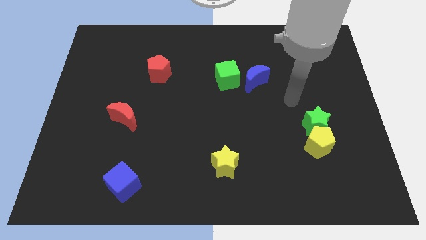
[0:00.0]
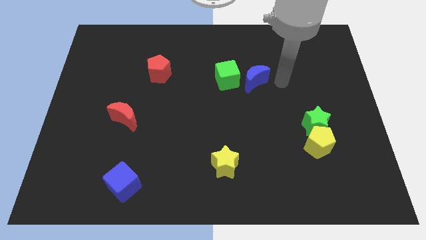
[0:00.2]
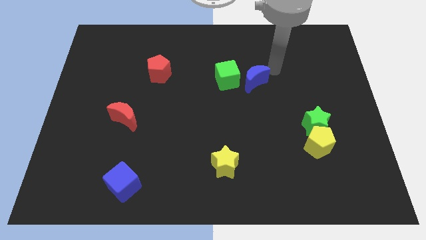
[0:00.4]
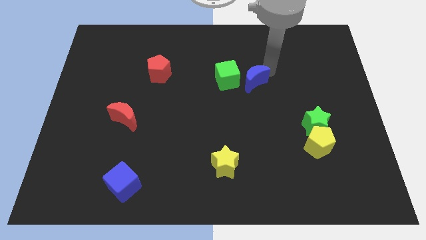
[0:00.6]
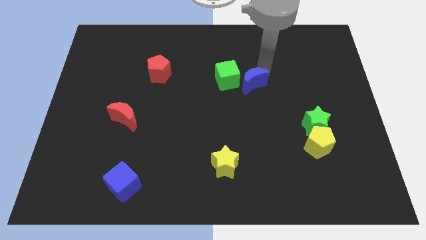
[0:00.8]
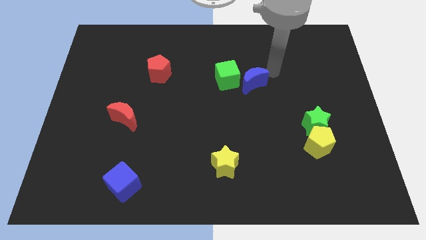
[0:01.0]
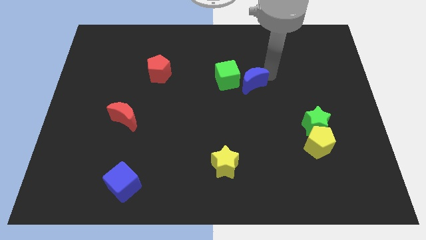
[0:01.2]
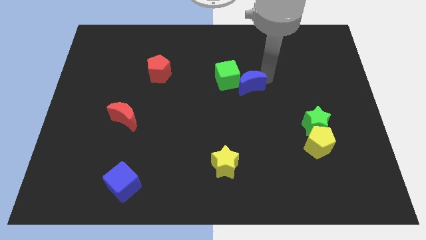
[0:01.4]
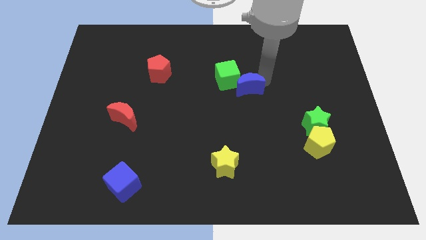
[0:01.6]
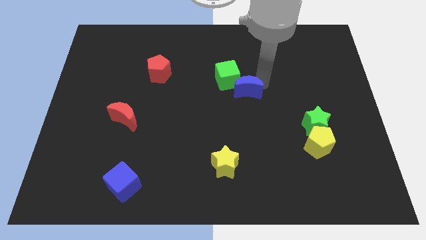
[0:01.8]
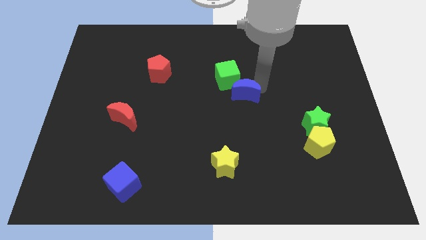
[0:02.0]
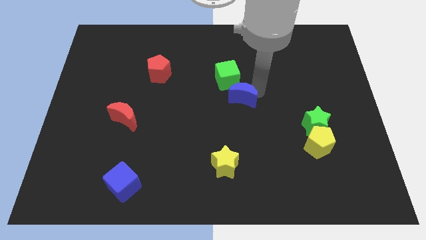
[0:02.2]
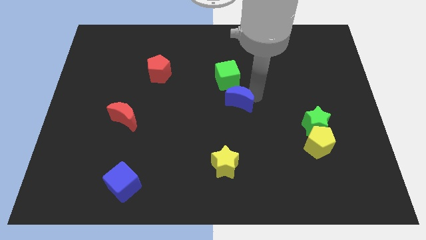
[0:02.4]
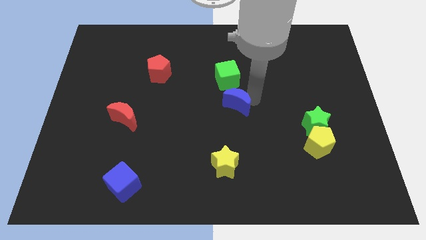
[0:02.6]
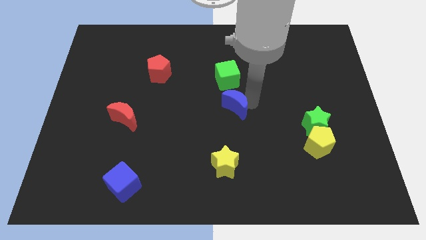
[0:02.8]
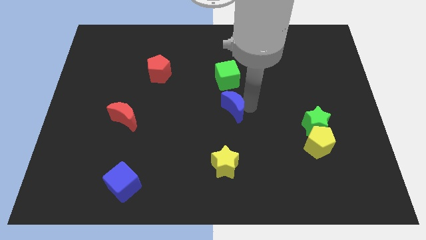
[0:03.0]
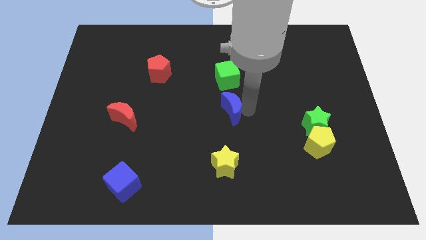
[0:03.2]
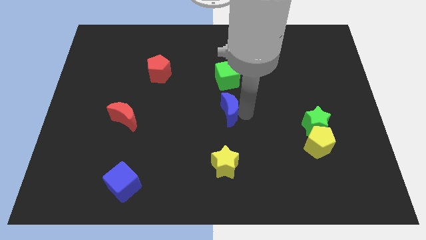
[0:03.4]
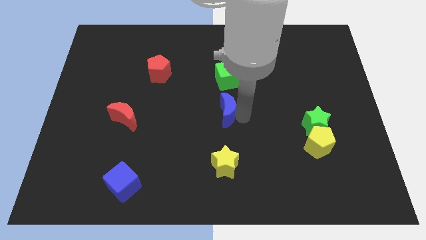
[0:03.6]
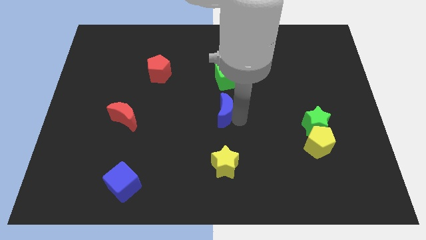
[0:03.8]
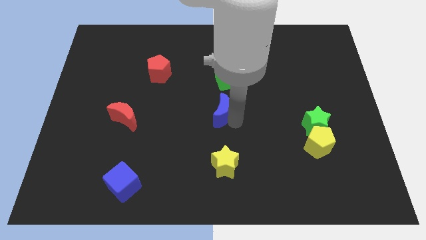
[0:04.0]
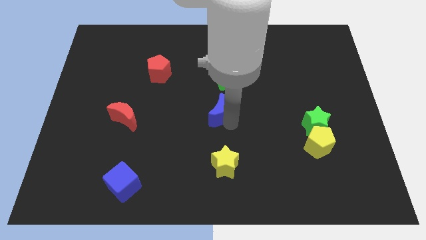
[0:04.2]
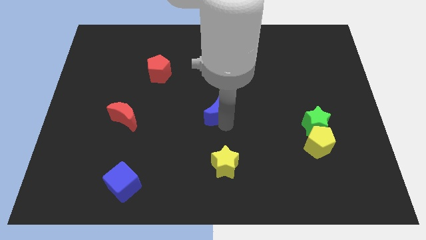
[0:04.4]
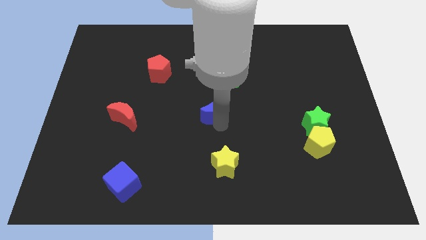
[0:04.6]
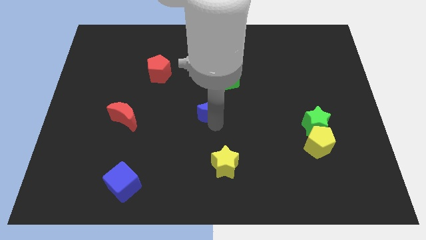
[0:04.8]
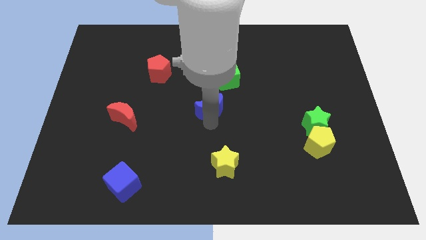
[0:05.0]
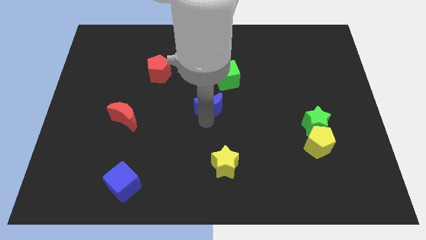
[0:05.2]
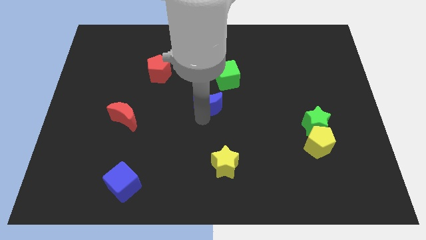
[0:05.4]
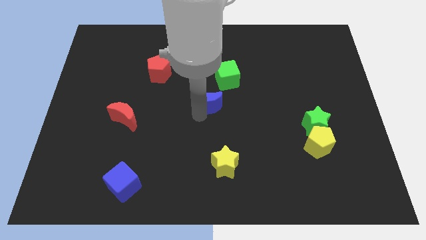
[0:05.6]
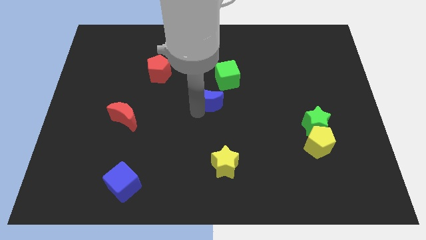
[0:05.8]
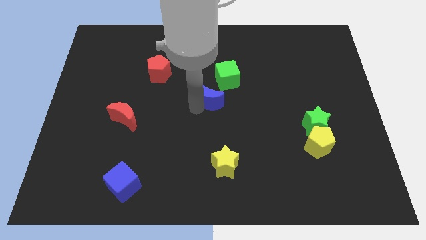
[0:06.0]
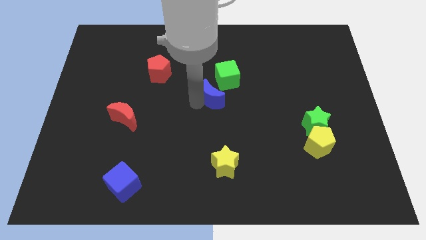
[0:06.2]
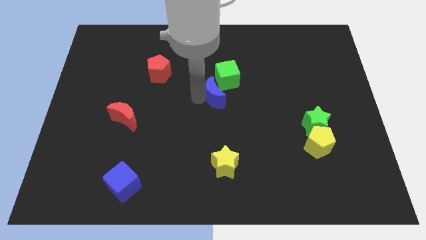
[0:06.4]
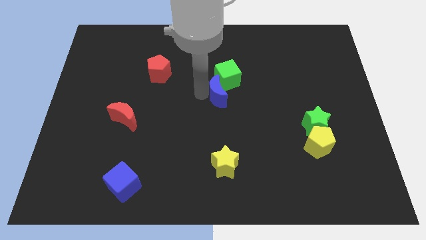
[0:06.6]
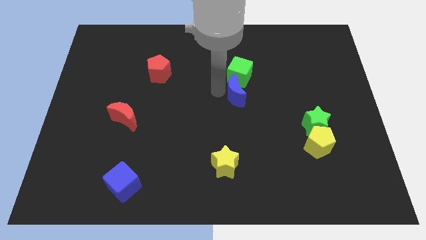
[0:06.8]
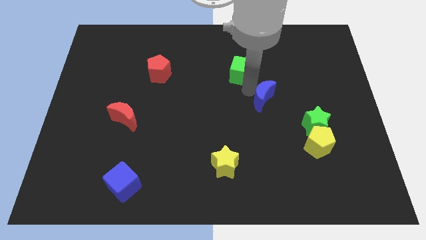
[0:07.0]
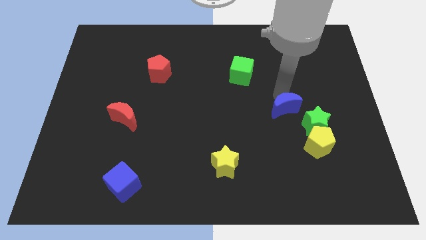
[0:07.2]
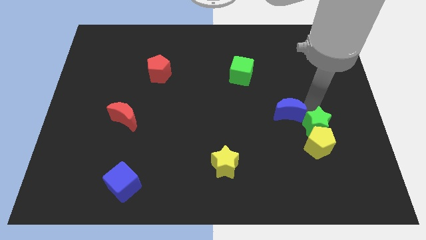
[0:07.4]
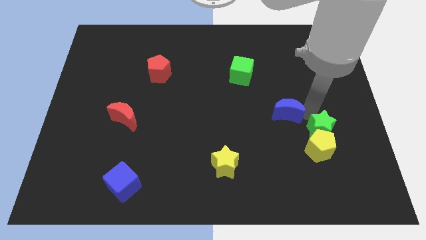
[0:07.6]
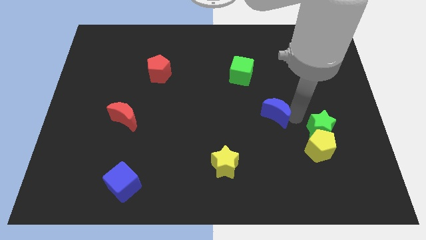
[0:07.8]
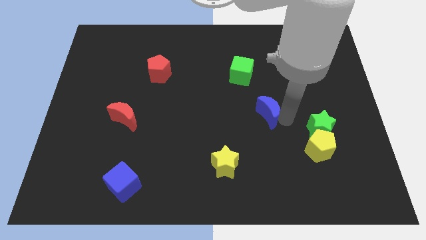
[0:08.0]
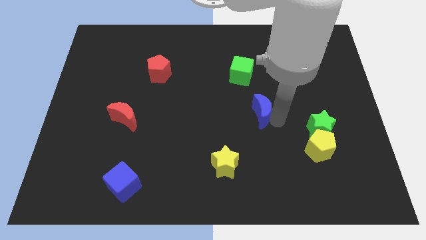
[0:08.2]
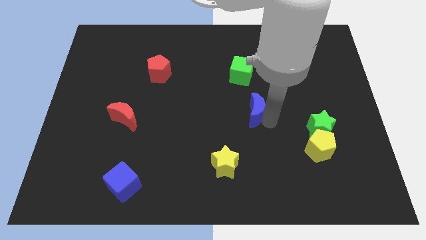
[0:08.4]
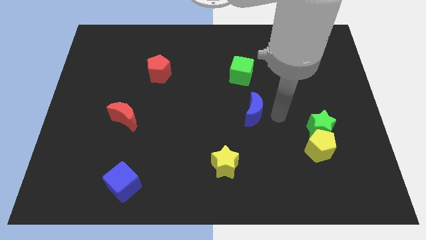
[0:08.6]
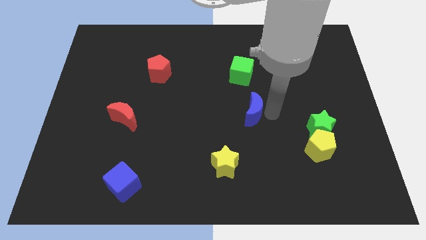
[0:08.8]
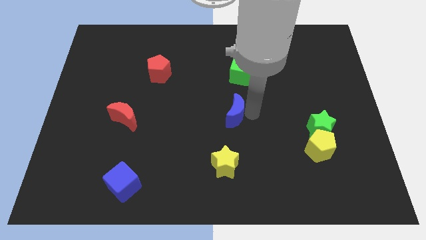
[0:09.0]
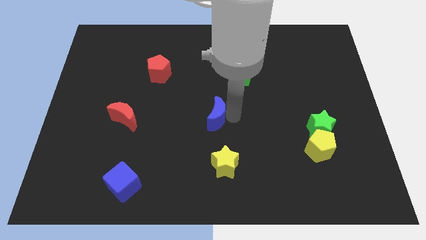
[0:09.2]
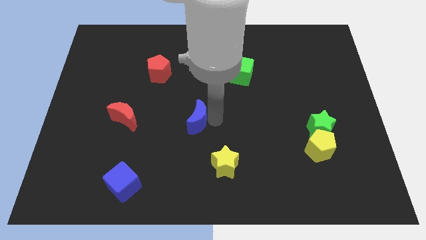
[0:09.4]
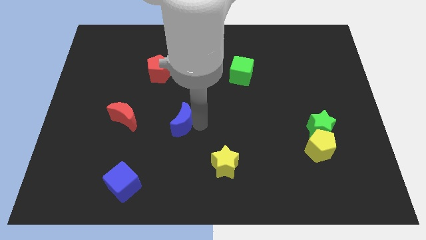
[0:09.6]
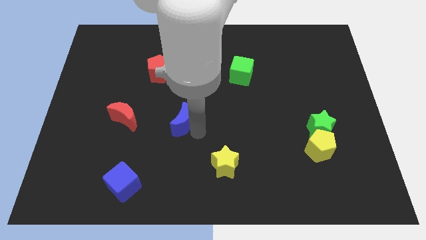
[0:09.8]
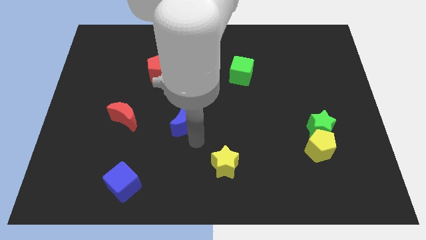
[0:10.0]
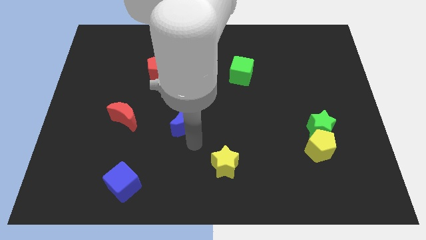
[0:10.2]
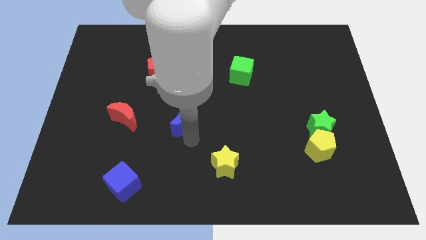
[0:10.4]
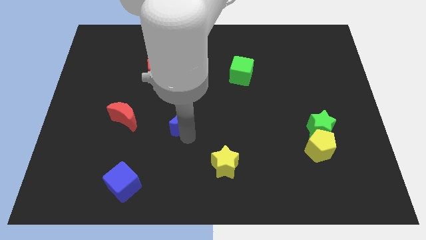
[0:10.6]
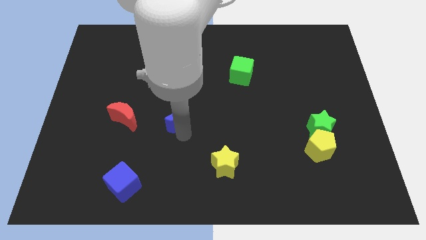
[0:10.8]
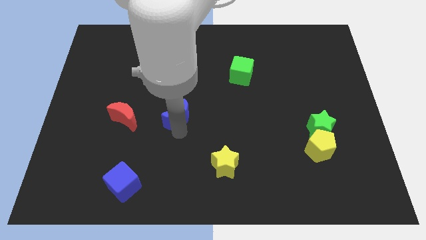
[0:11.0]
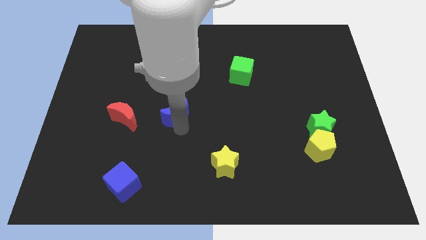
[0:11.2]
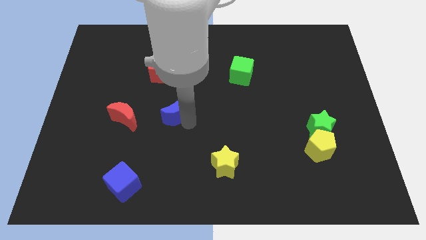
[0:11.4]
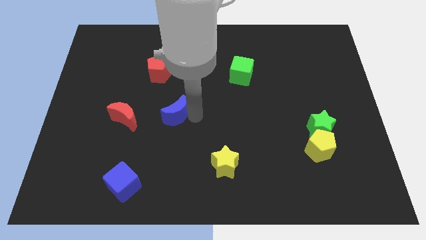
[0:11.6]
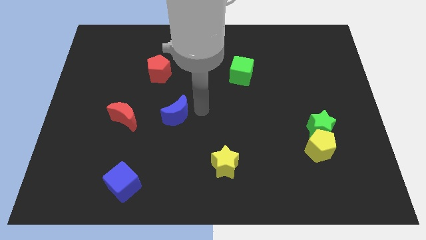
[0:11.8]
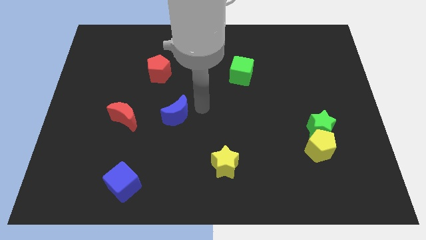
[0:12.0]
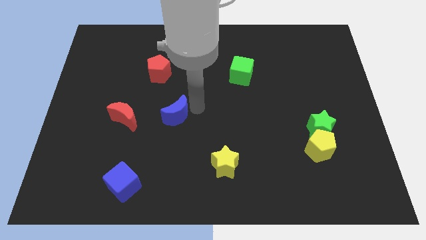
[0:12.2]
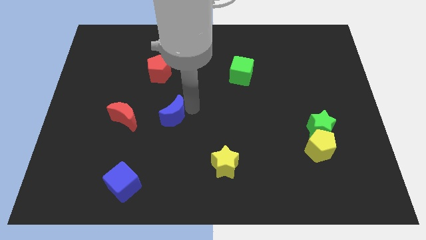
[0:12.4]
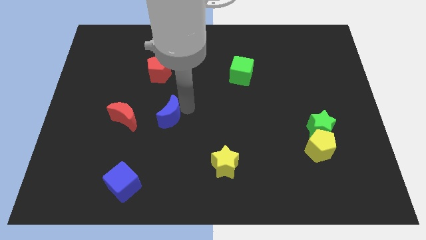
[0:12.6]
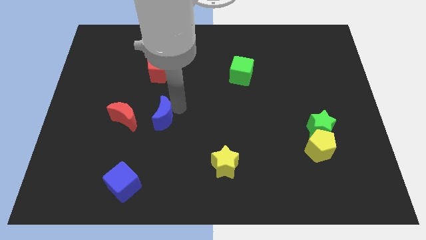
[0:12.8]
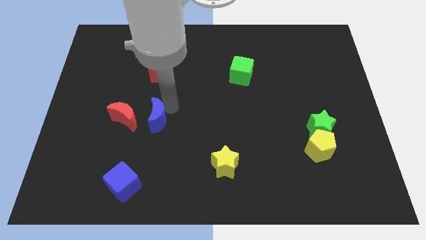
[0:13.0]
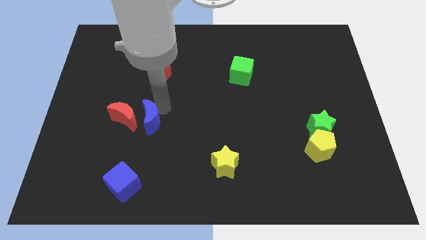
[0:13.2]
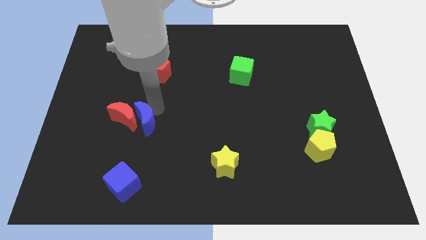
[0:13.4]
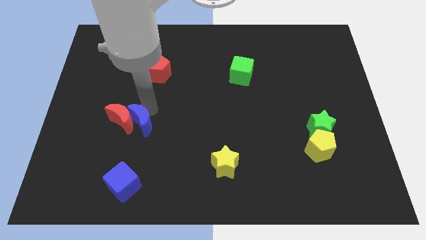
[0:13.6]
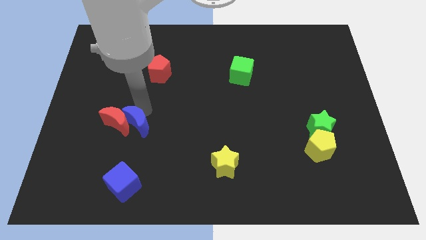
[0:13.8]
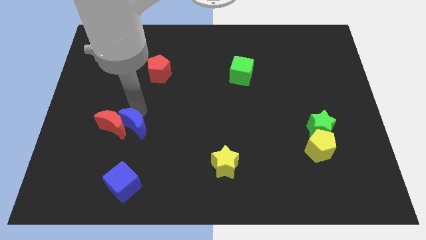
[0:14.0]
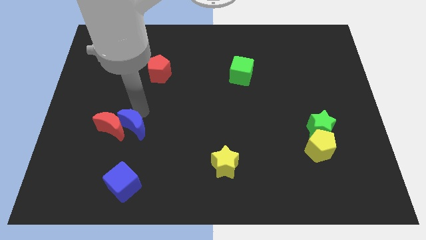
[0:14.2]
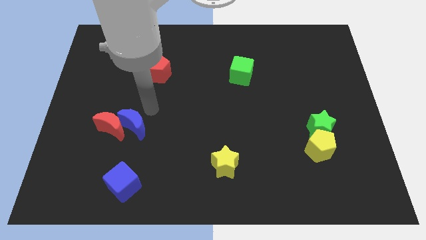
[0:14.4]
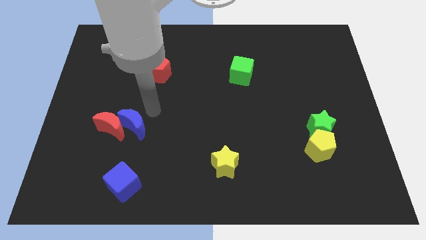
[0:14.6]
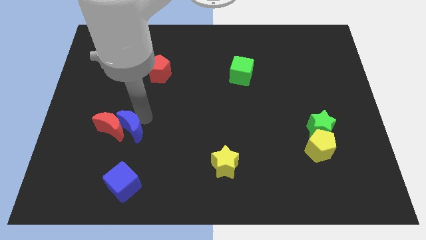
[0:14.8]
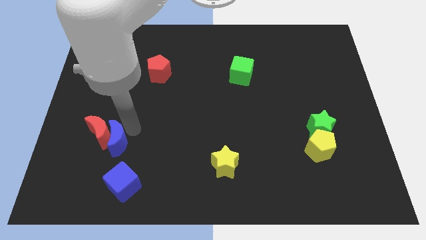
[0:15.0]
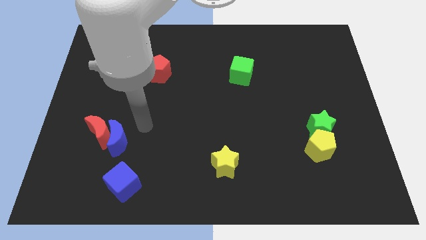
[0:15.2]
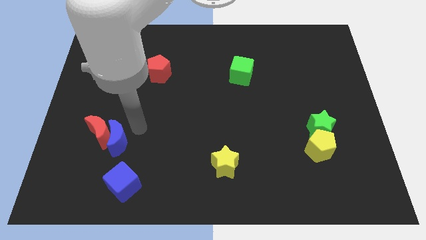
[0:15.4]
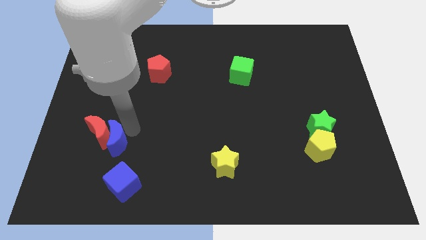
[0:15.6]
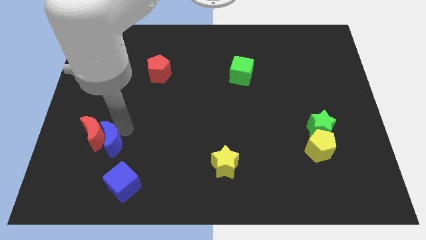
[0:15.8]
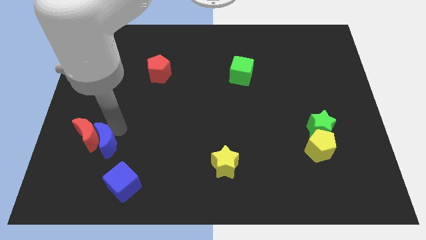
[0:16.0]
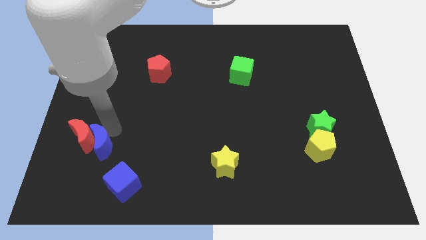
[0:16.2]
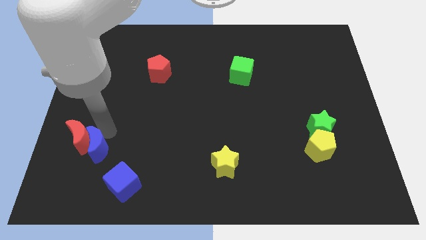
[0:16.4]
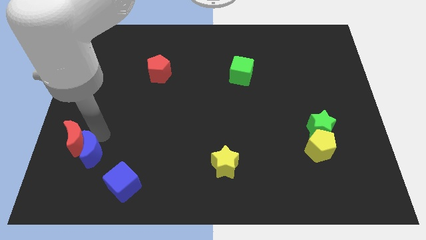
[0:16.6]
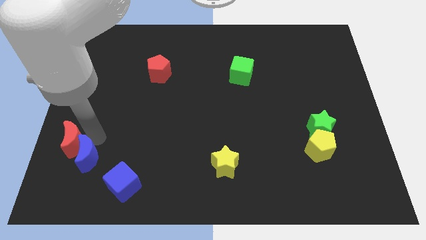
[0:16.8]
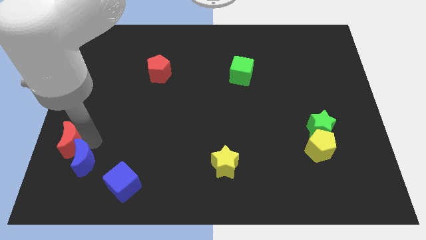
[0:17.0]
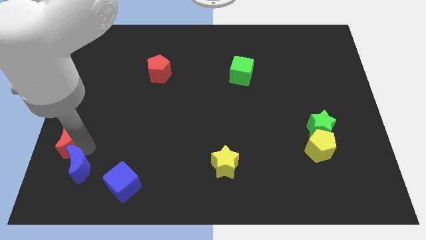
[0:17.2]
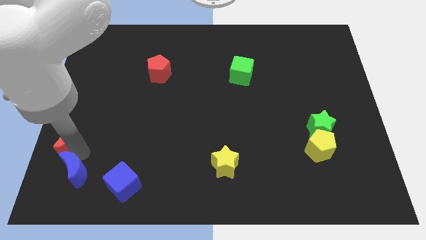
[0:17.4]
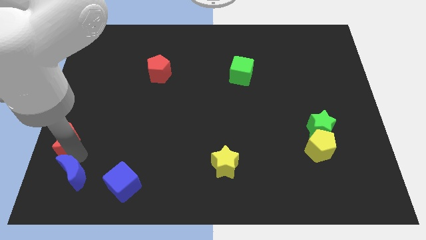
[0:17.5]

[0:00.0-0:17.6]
push the blue moon to the bottom left corner
